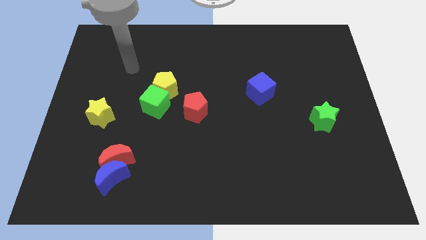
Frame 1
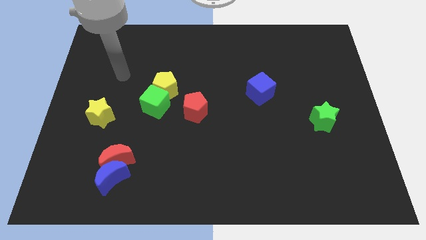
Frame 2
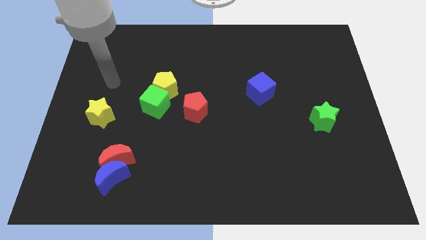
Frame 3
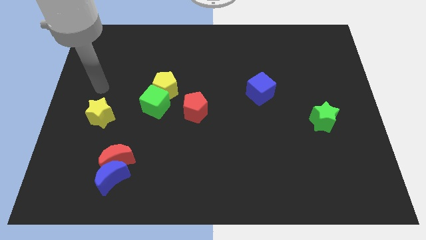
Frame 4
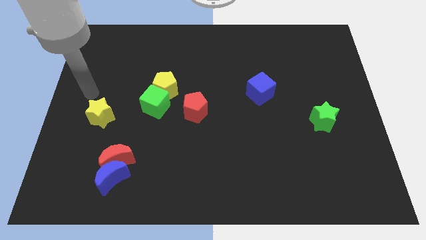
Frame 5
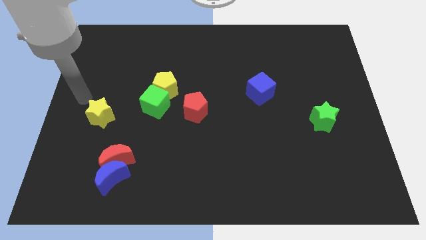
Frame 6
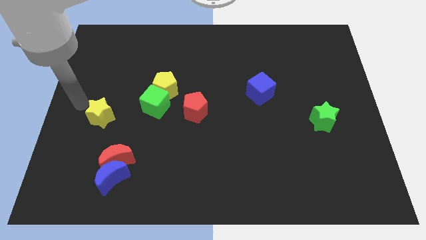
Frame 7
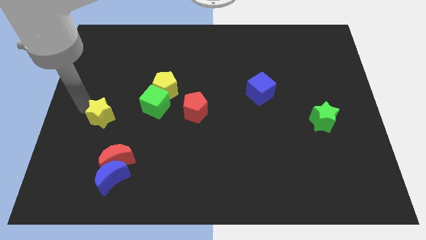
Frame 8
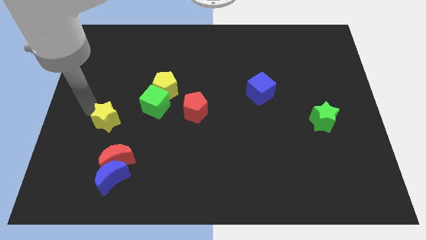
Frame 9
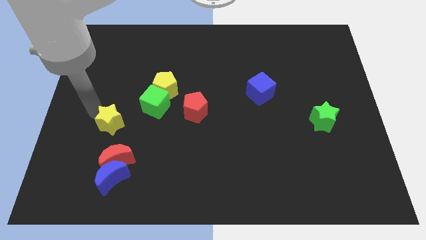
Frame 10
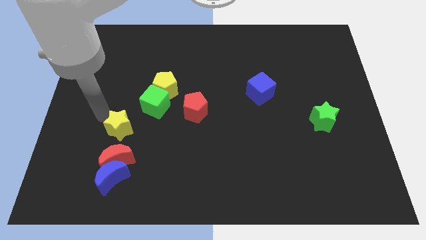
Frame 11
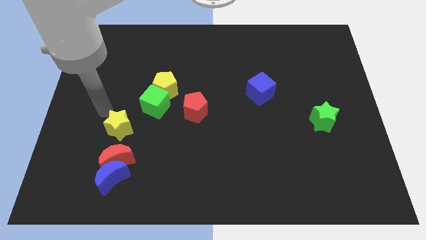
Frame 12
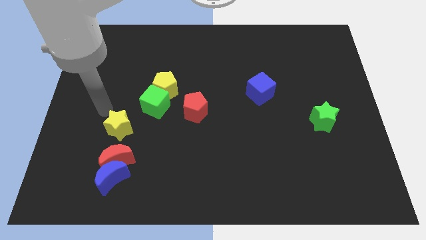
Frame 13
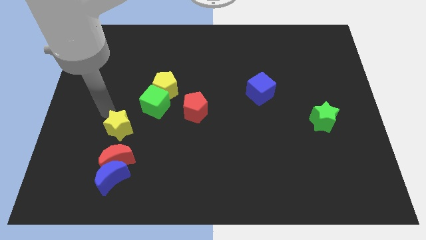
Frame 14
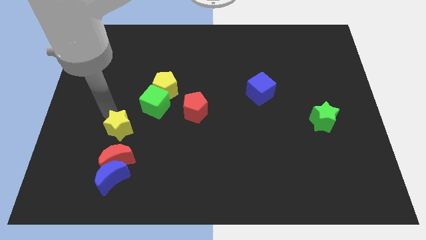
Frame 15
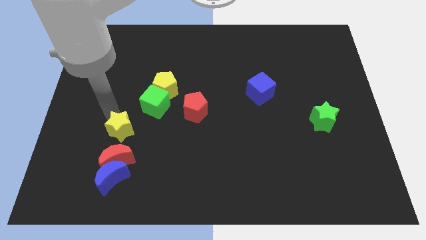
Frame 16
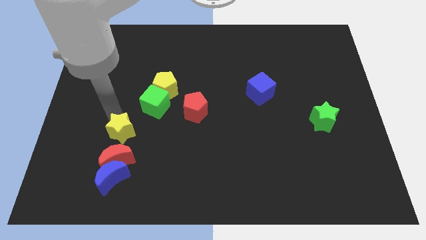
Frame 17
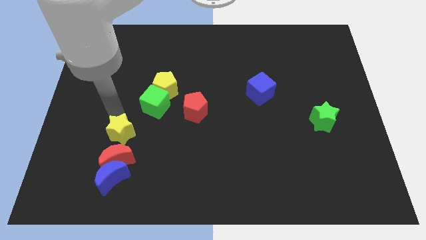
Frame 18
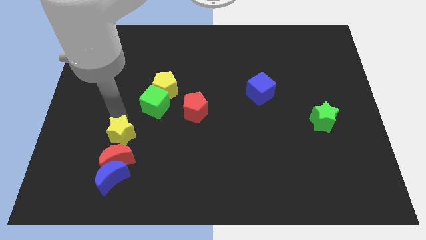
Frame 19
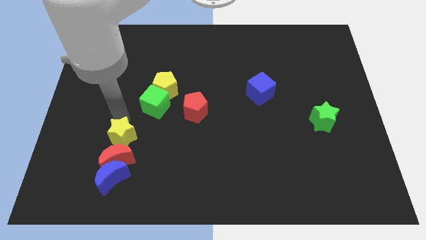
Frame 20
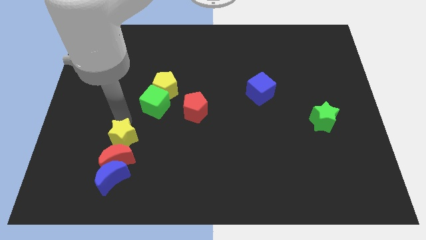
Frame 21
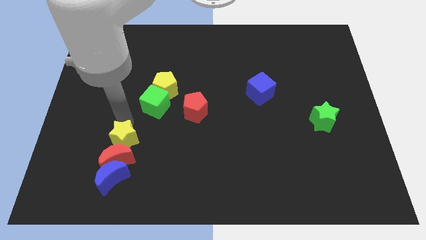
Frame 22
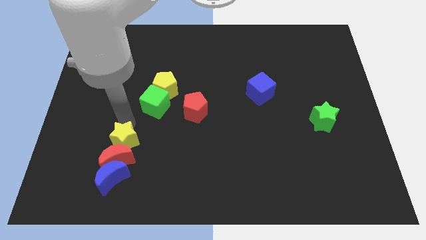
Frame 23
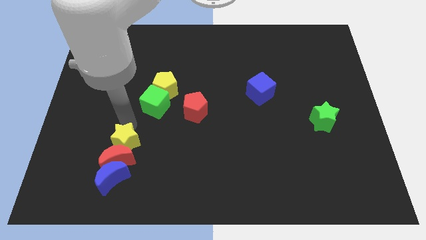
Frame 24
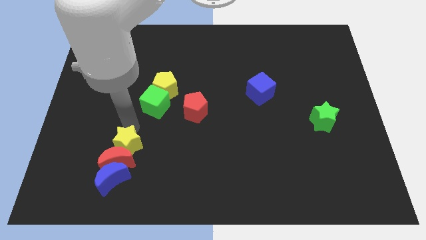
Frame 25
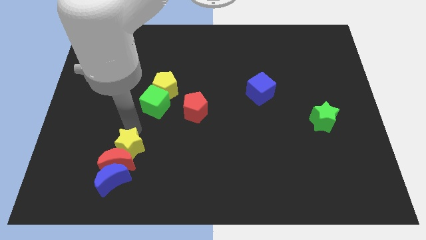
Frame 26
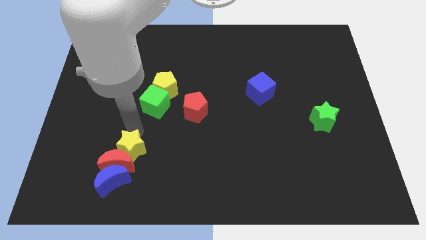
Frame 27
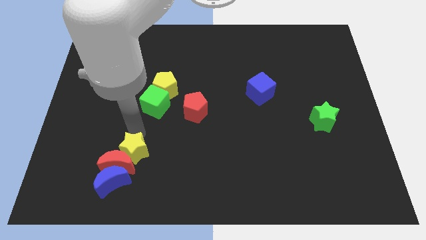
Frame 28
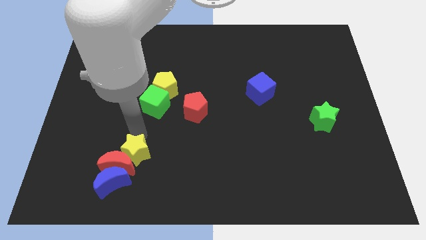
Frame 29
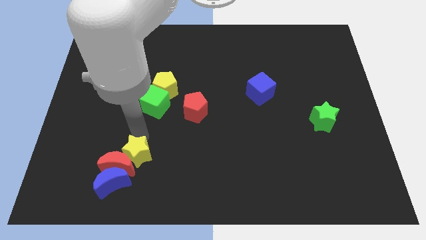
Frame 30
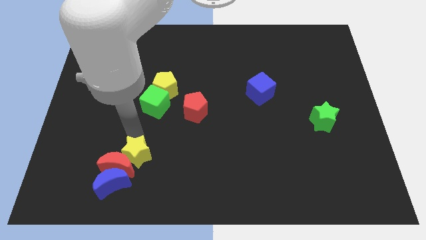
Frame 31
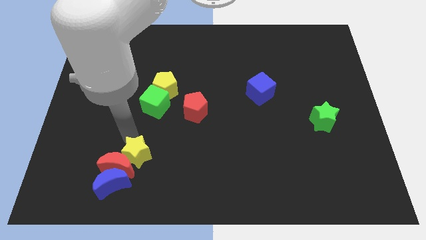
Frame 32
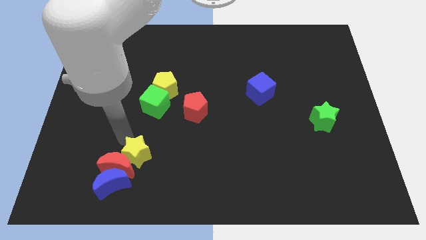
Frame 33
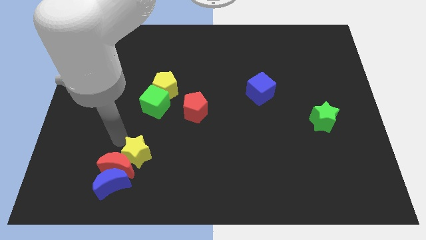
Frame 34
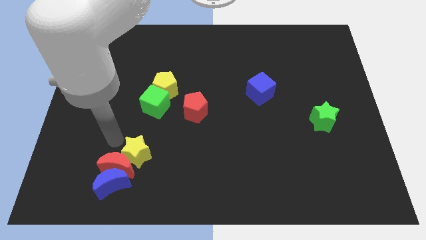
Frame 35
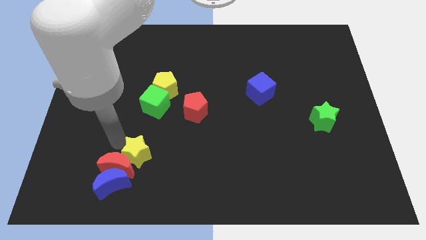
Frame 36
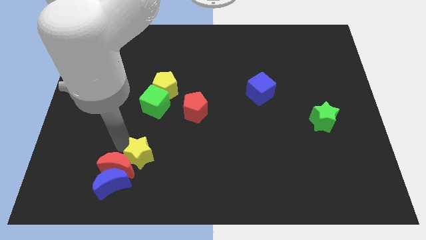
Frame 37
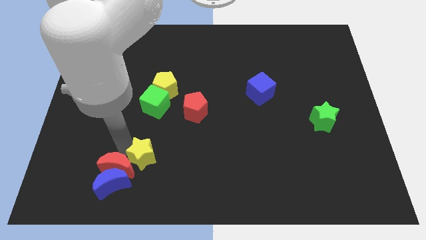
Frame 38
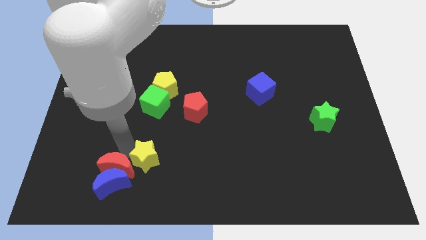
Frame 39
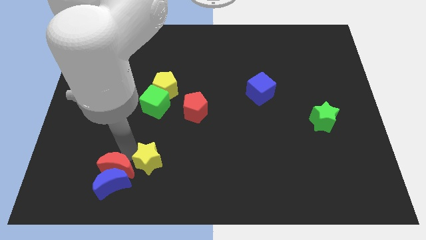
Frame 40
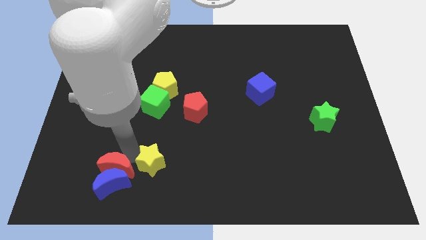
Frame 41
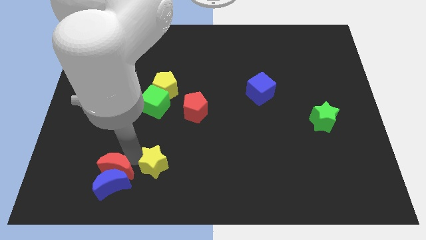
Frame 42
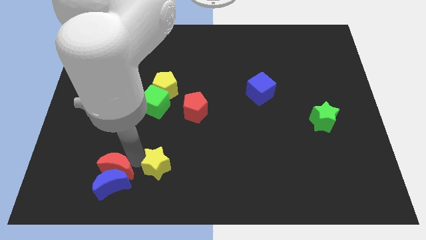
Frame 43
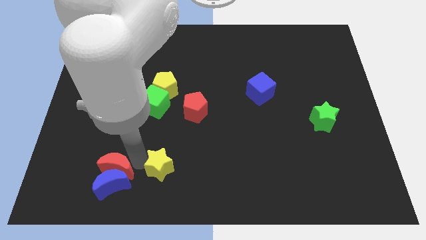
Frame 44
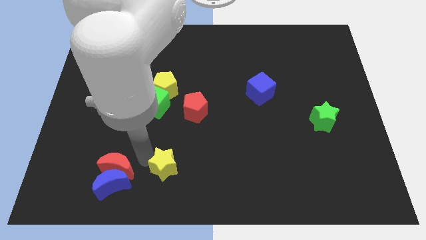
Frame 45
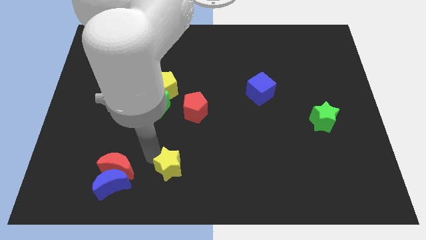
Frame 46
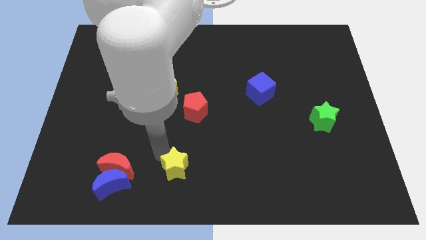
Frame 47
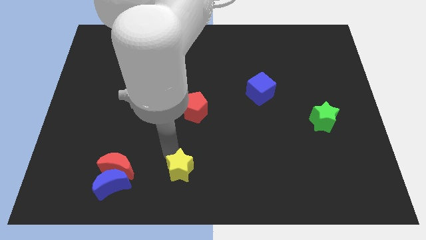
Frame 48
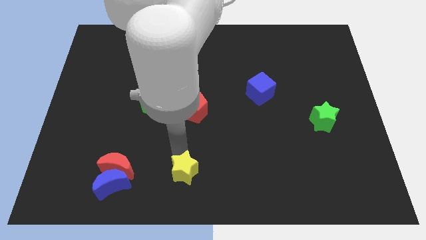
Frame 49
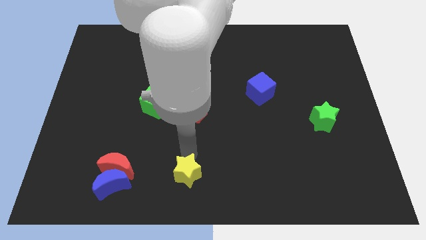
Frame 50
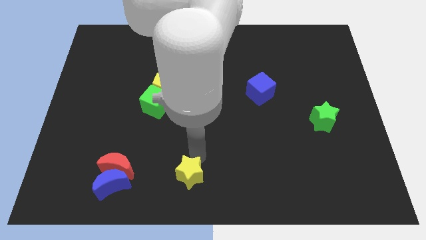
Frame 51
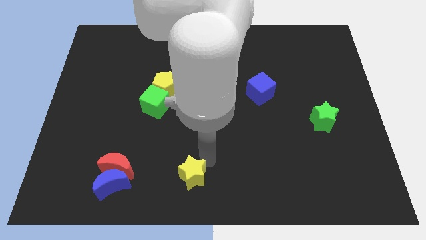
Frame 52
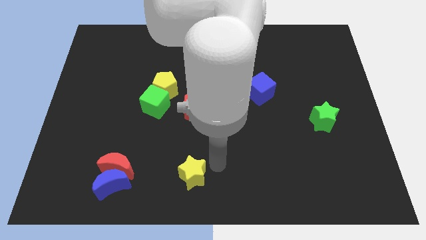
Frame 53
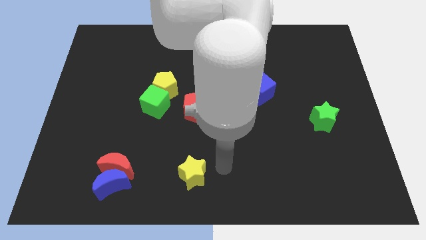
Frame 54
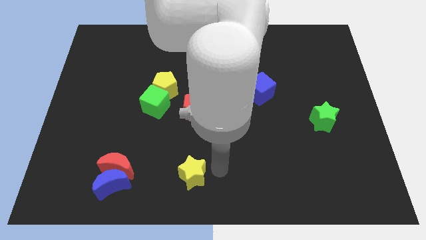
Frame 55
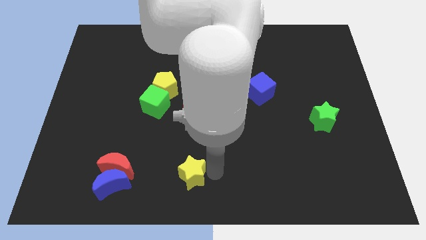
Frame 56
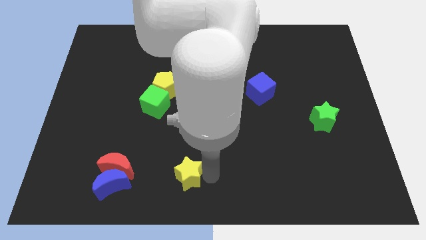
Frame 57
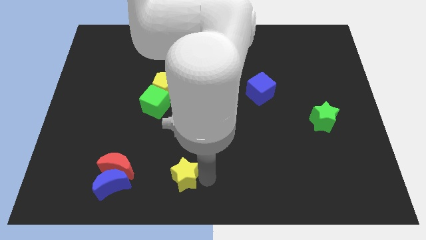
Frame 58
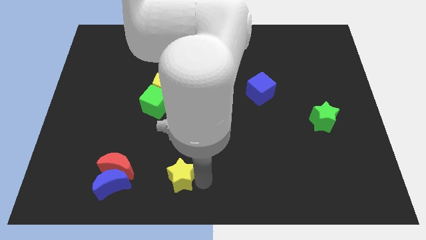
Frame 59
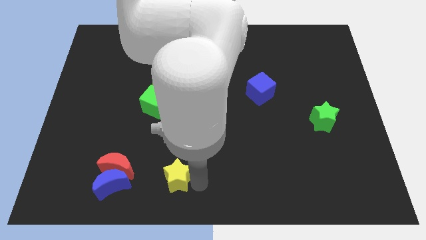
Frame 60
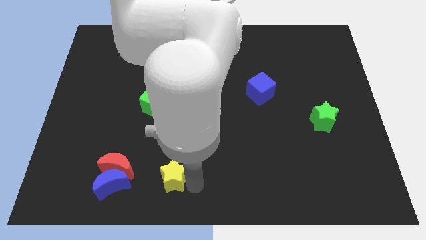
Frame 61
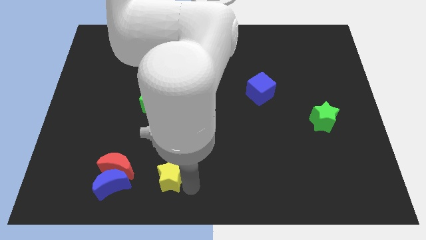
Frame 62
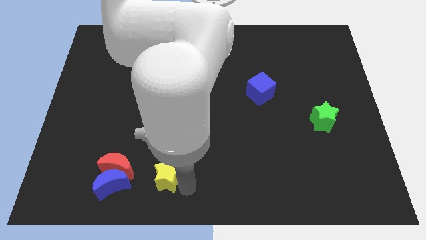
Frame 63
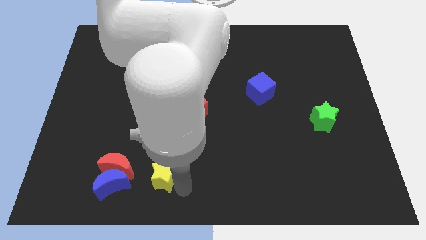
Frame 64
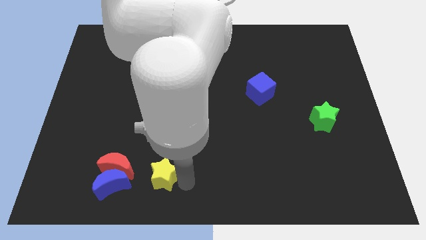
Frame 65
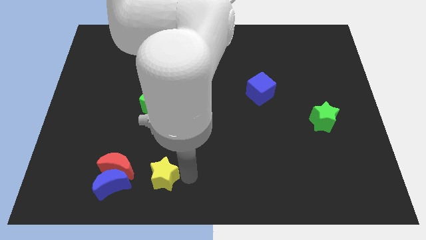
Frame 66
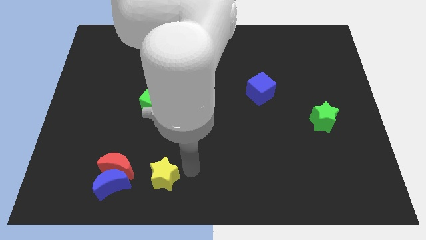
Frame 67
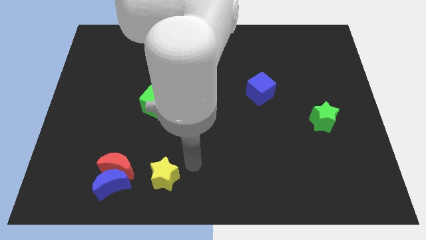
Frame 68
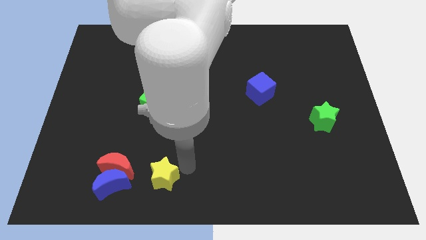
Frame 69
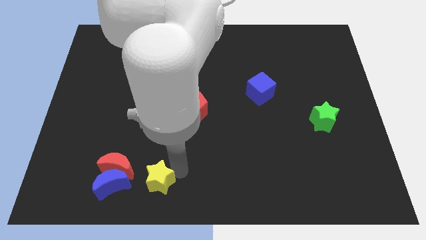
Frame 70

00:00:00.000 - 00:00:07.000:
move the yellow star to the bottom right side of the red moon

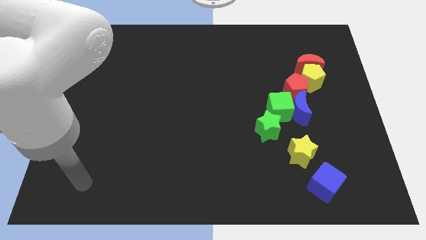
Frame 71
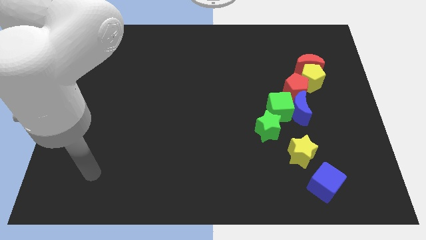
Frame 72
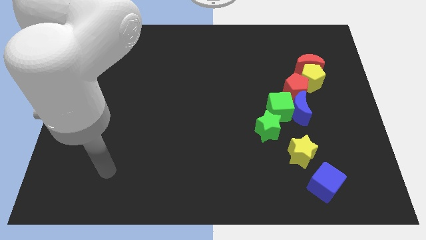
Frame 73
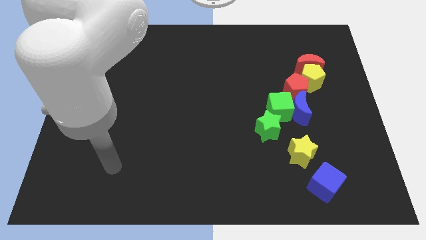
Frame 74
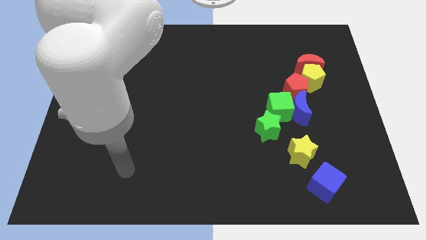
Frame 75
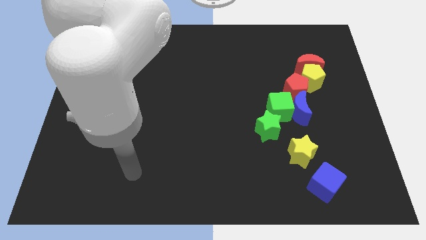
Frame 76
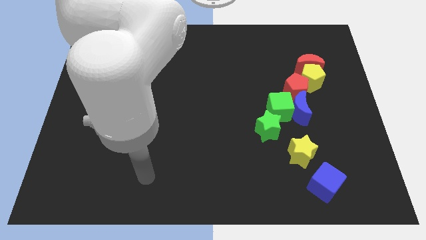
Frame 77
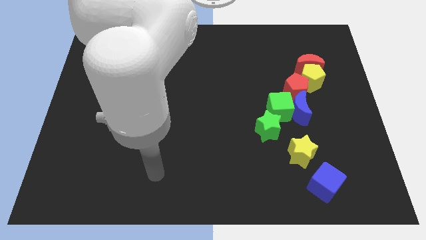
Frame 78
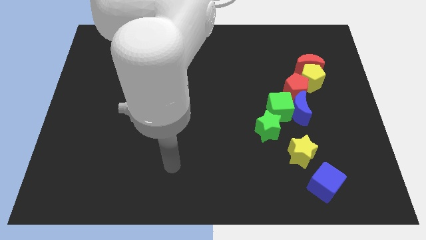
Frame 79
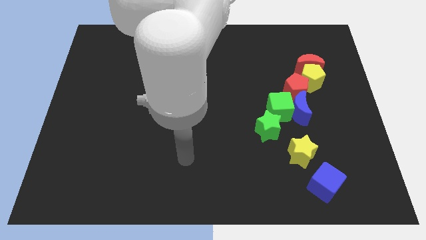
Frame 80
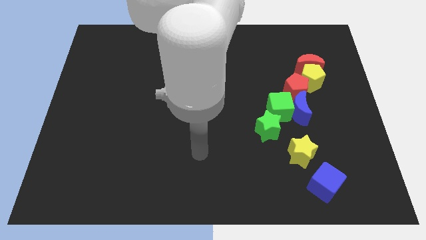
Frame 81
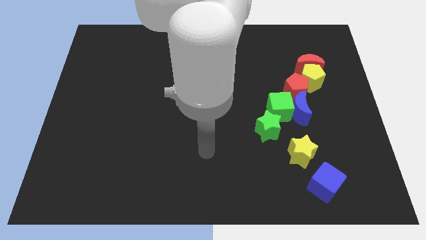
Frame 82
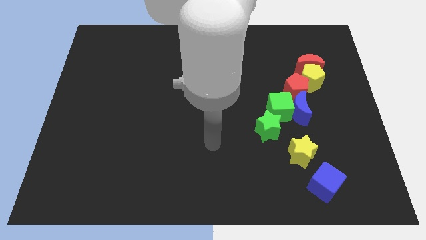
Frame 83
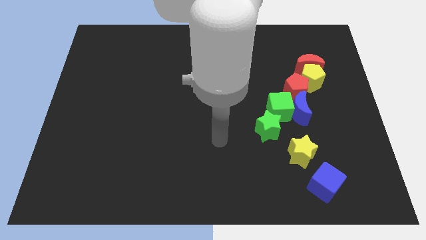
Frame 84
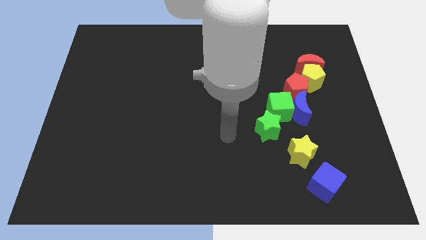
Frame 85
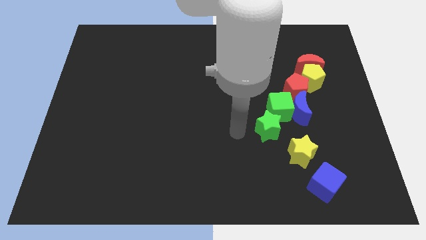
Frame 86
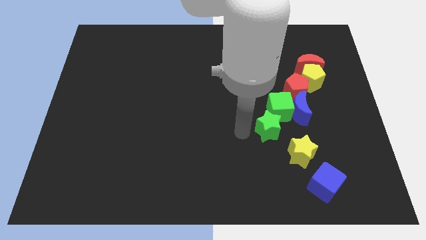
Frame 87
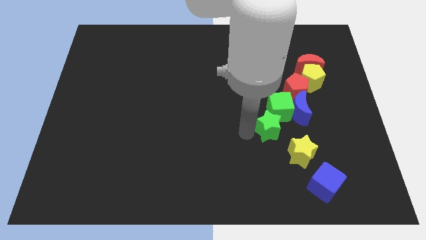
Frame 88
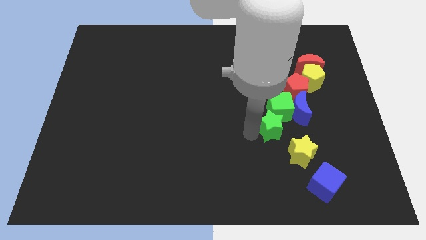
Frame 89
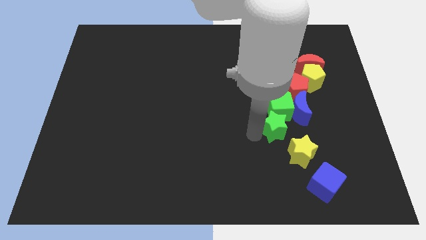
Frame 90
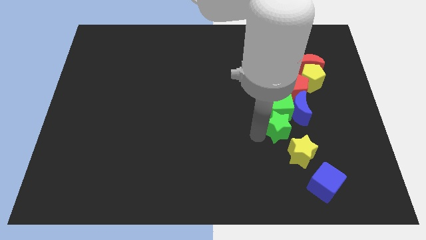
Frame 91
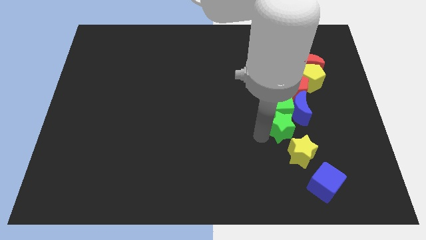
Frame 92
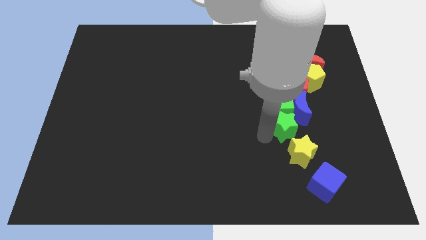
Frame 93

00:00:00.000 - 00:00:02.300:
move the green star to the bottom of the red pentagon
